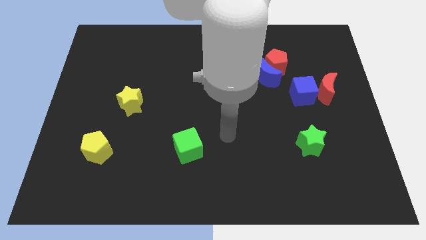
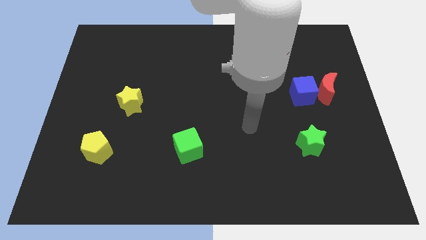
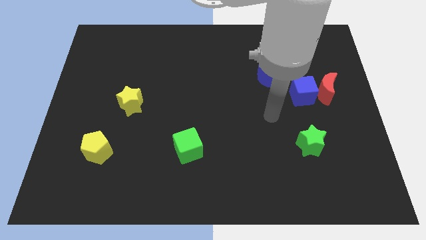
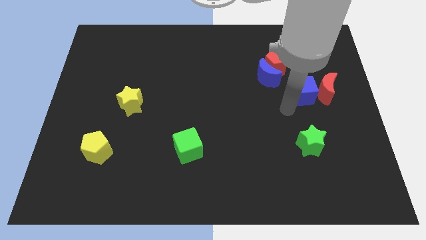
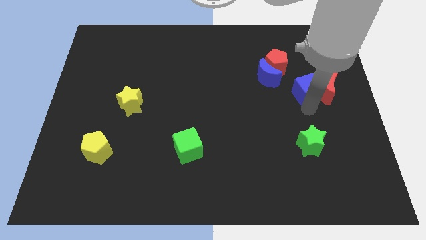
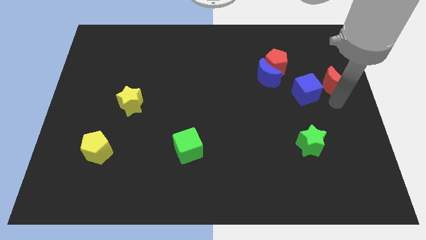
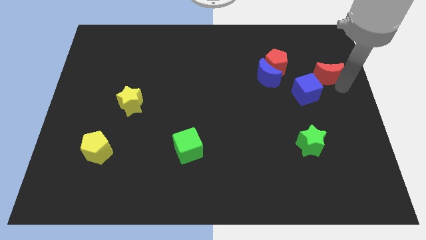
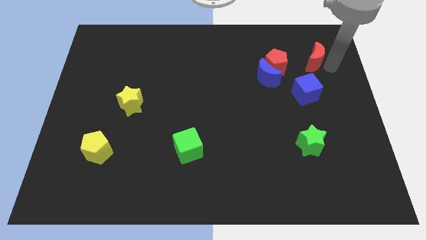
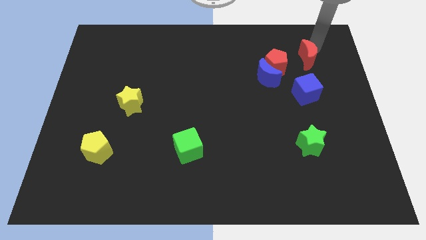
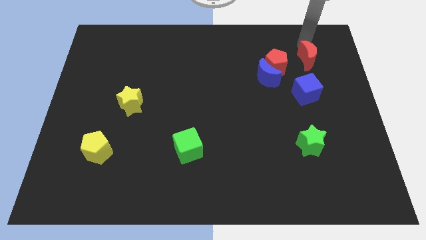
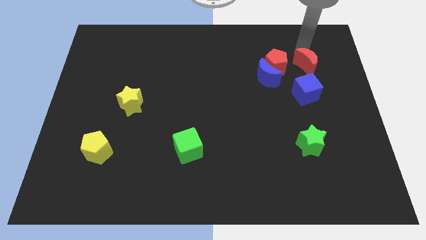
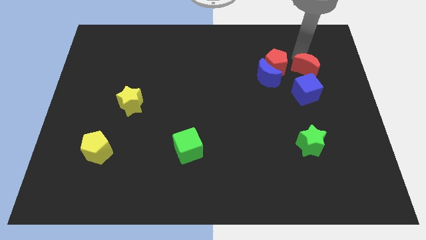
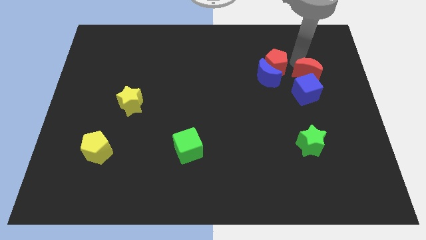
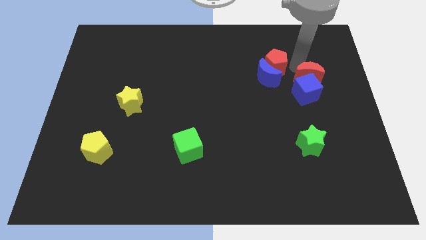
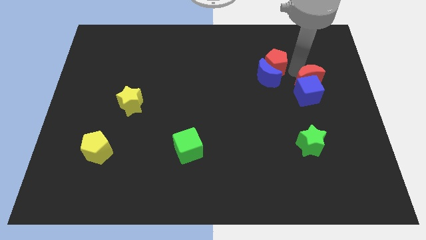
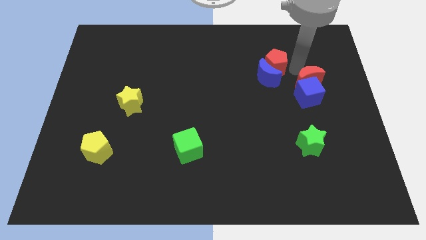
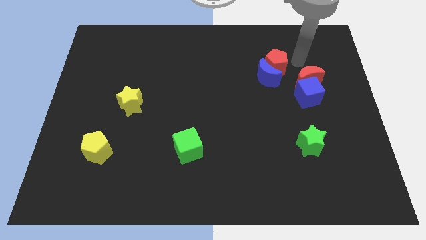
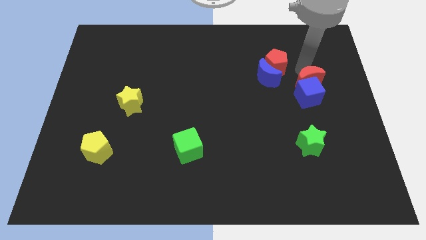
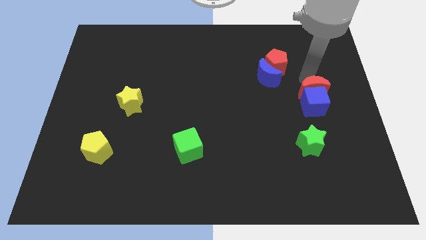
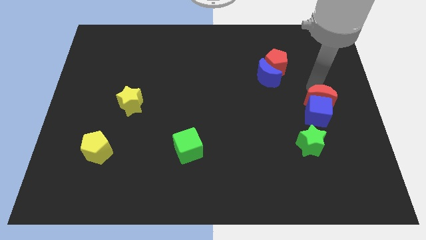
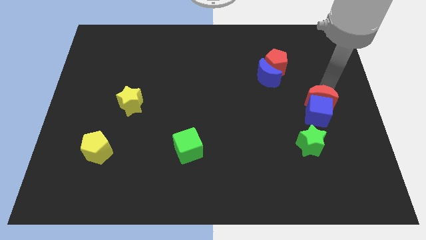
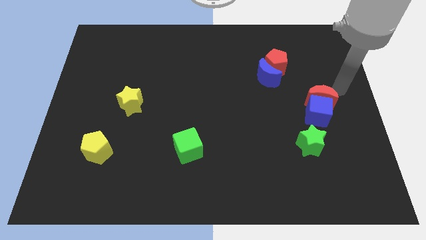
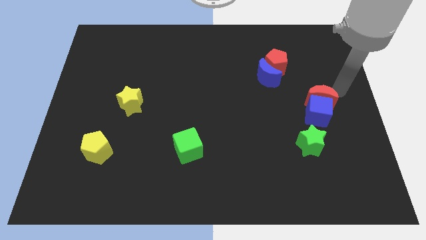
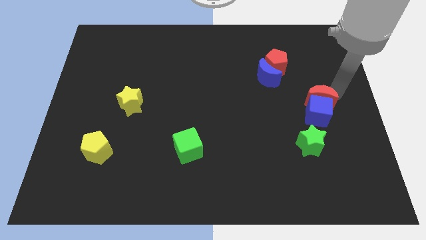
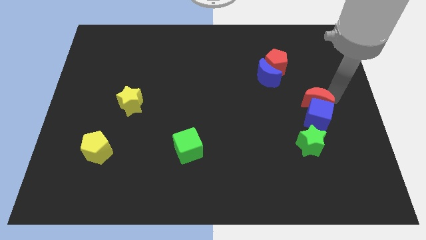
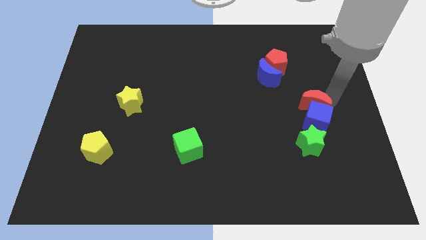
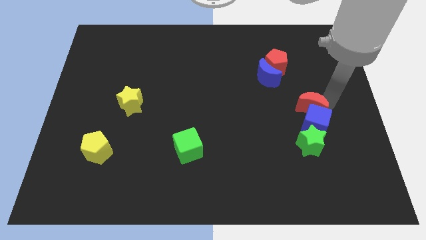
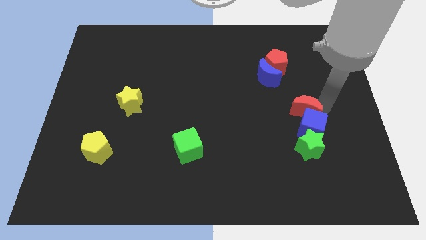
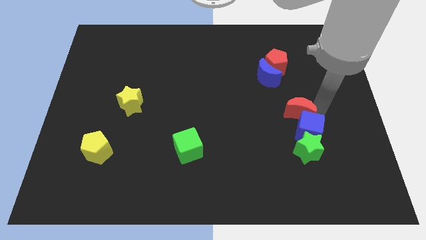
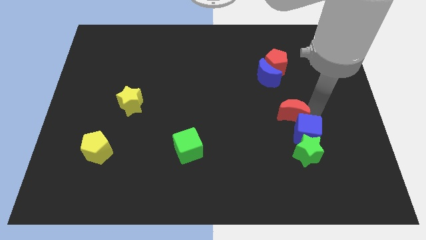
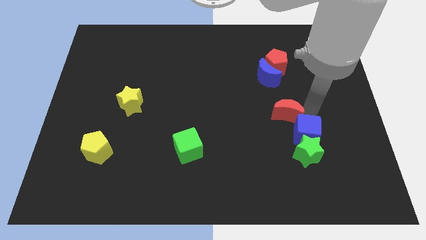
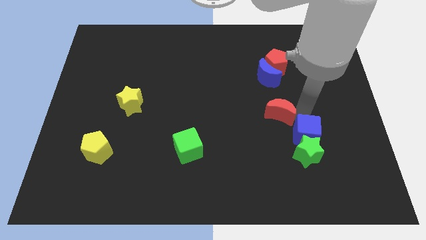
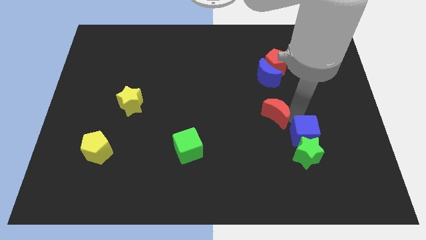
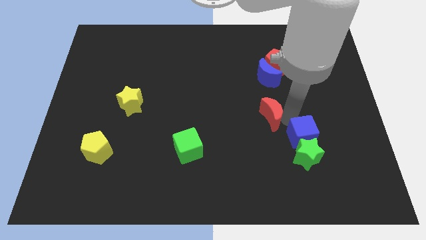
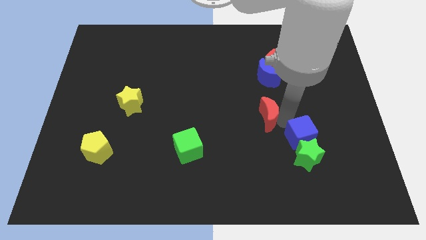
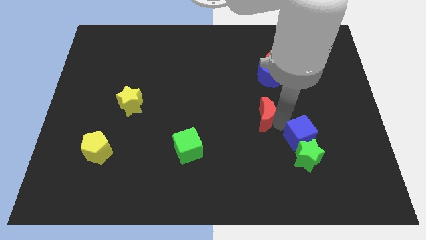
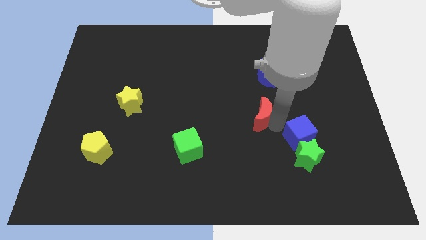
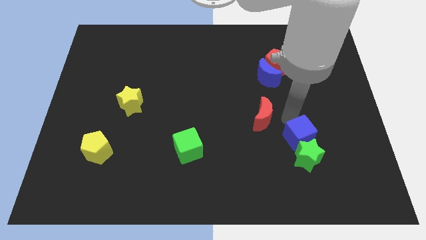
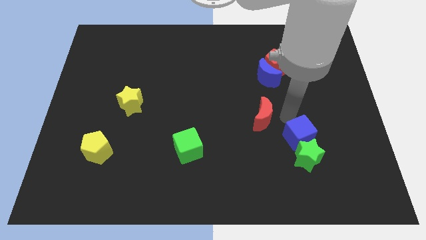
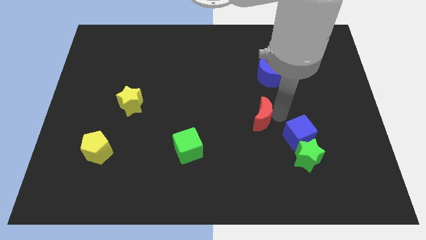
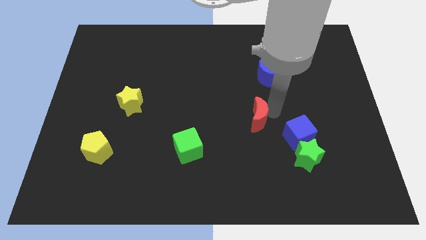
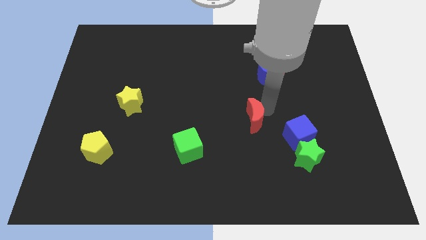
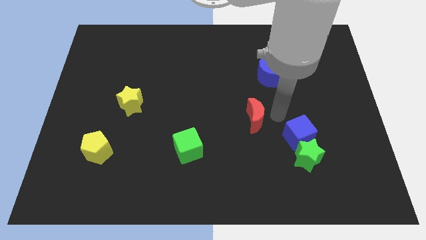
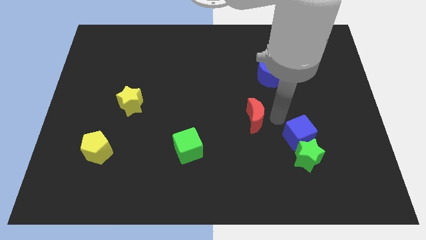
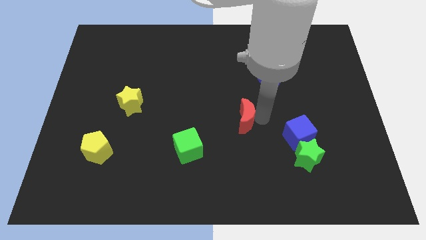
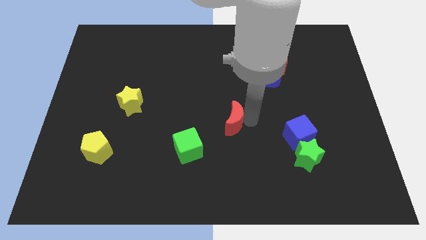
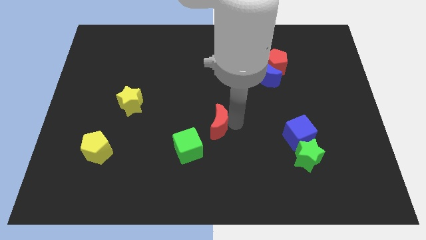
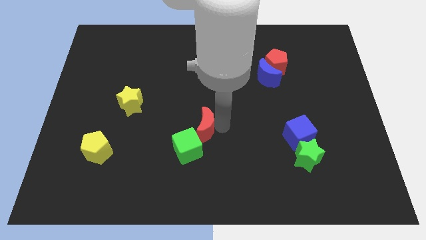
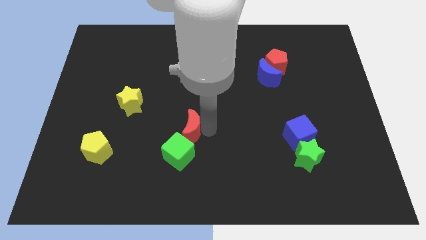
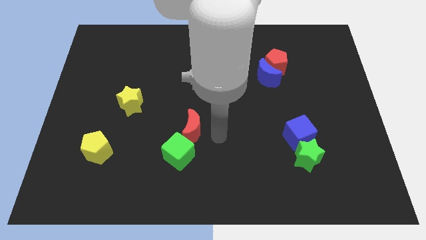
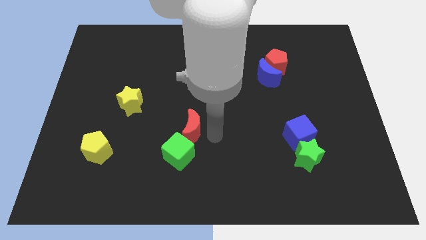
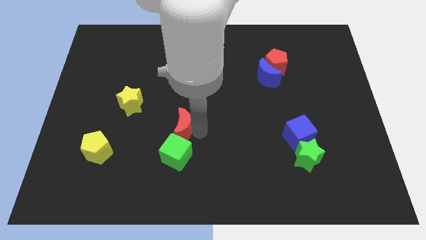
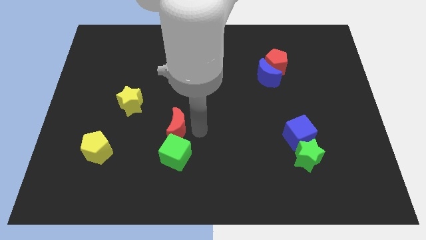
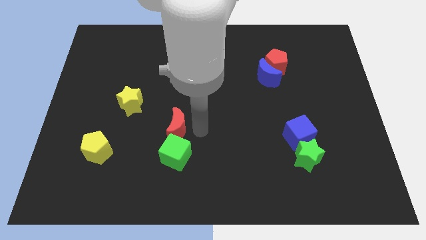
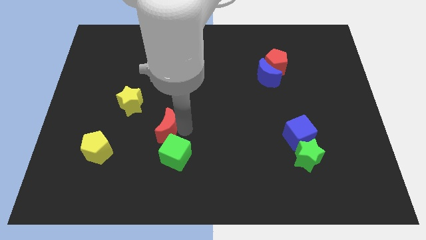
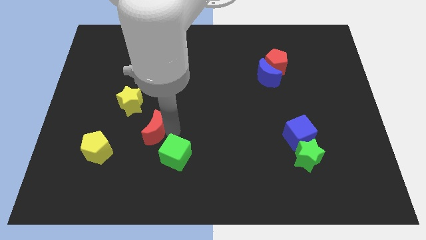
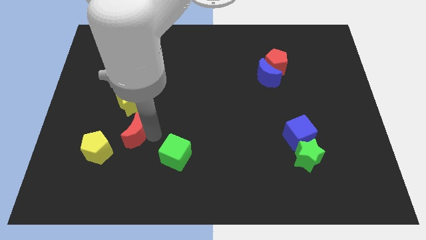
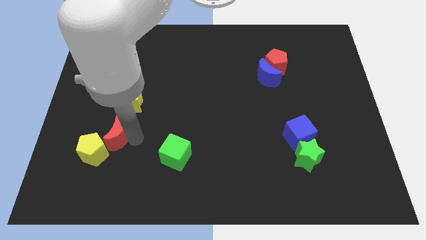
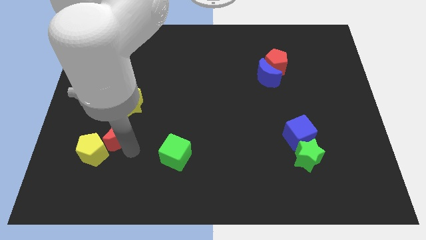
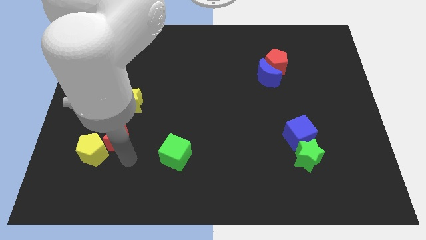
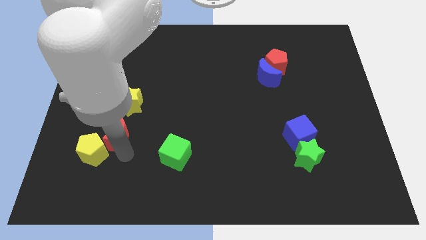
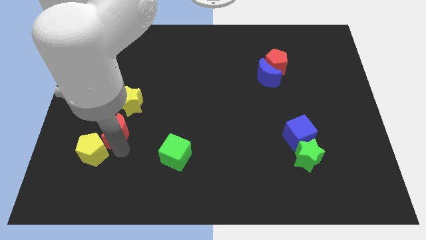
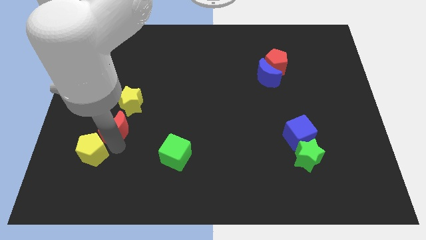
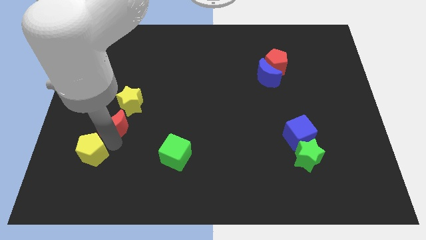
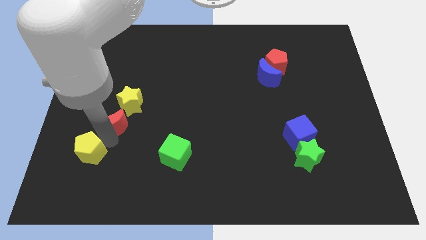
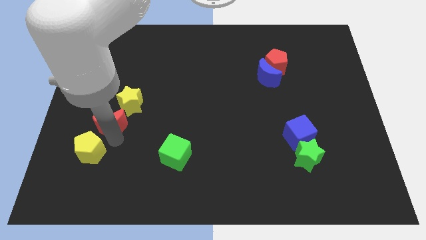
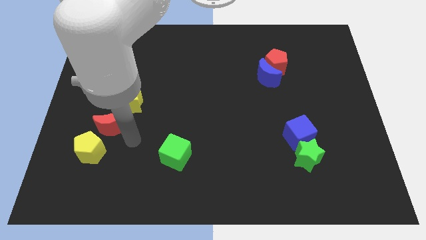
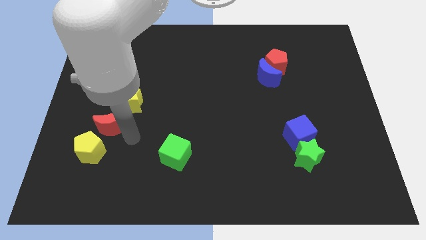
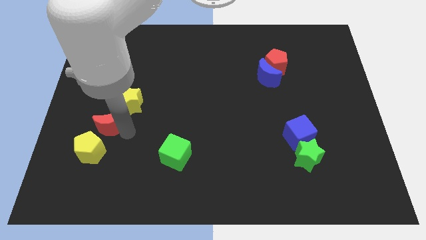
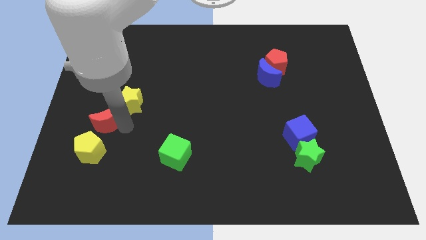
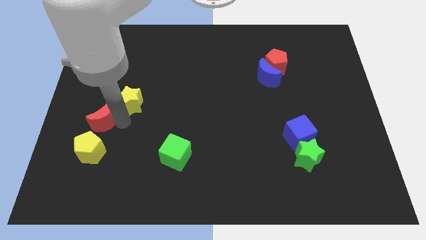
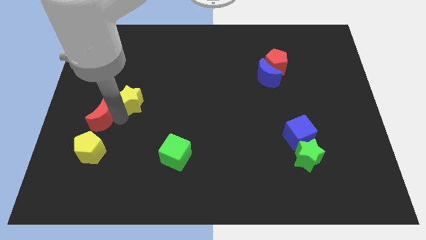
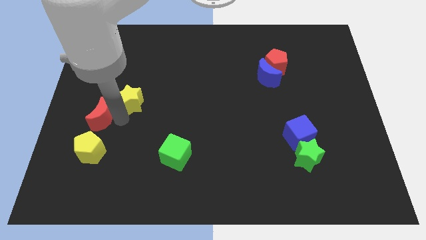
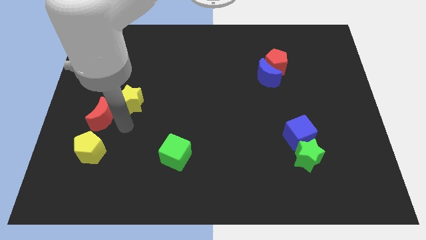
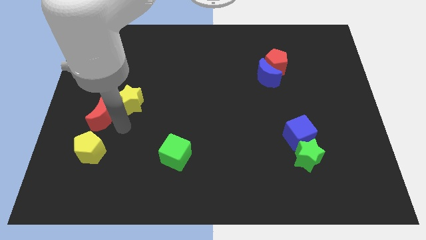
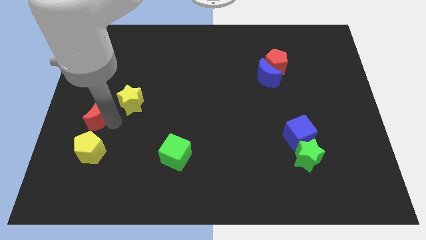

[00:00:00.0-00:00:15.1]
move the red moon to the left side of the board
